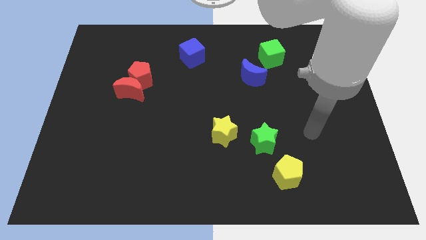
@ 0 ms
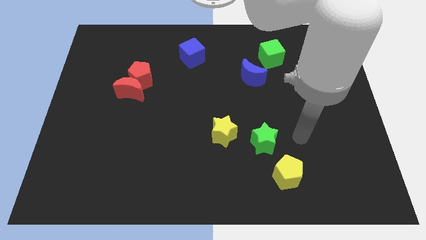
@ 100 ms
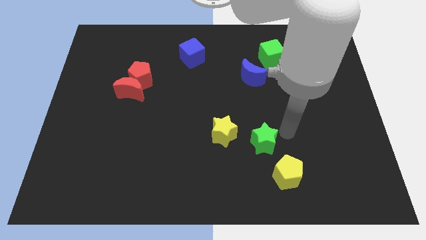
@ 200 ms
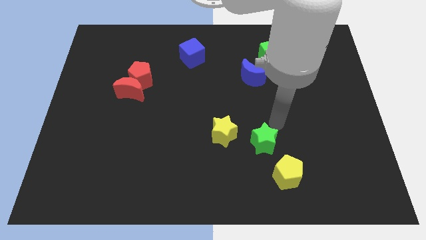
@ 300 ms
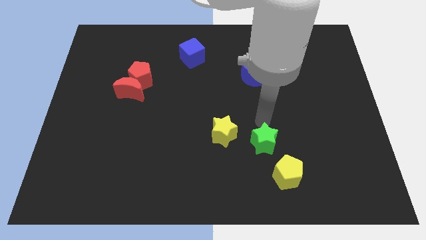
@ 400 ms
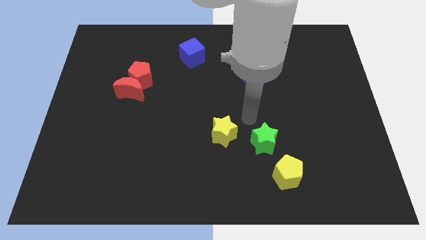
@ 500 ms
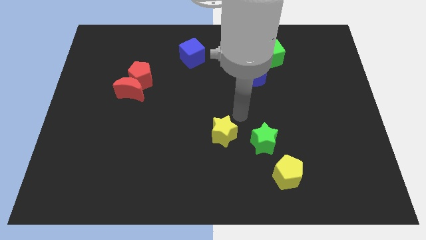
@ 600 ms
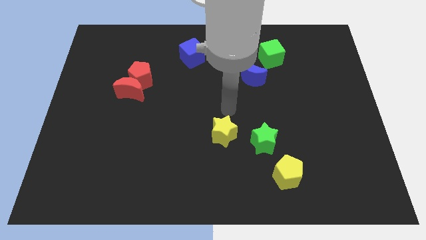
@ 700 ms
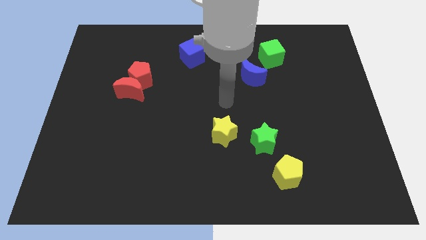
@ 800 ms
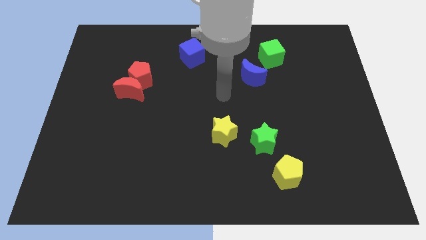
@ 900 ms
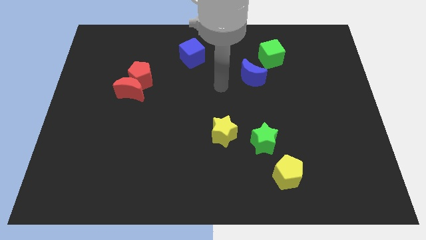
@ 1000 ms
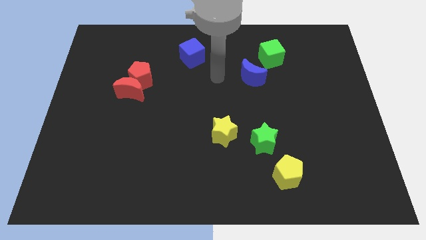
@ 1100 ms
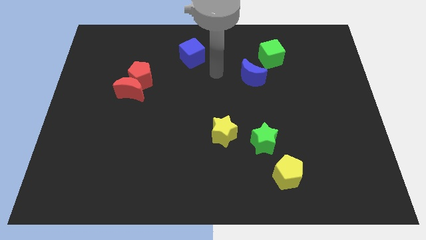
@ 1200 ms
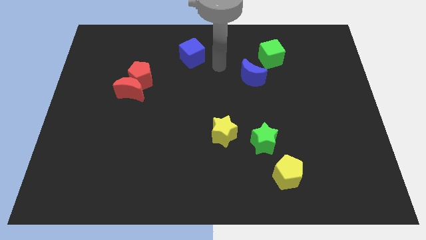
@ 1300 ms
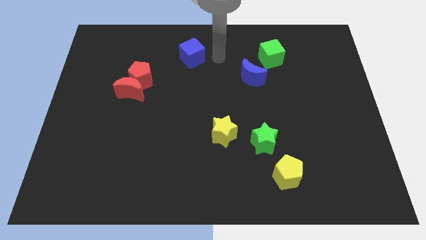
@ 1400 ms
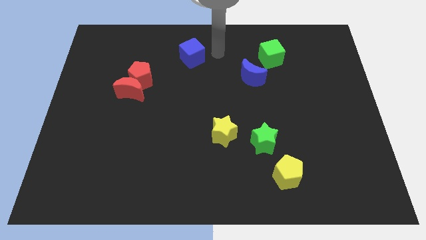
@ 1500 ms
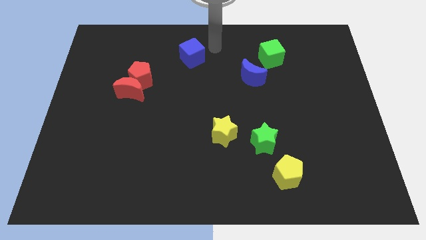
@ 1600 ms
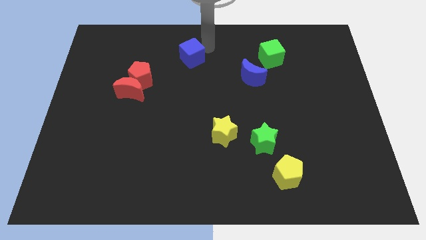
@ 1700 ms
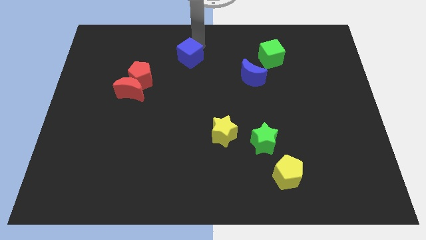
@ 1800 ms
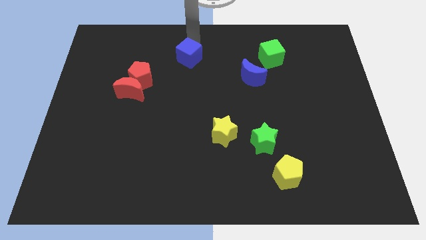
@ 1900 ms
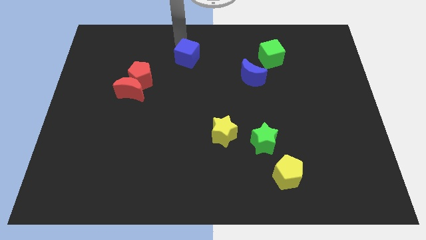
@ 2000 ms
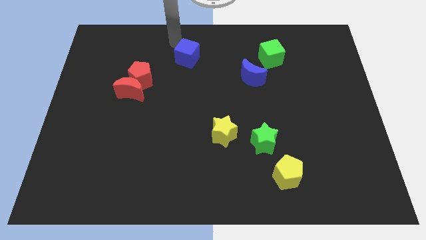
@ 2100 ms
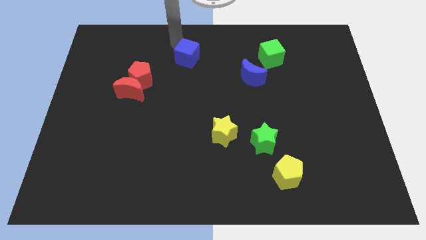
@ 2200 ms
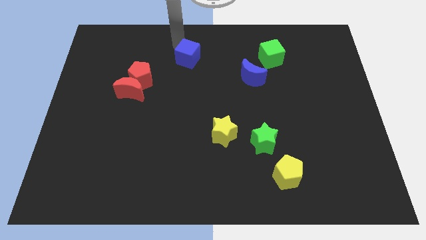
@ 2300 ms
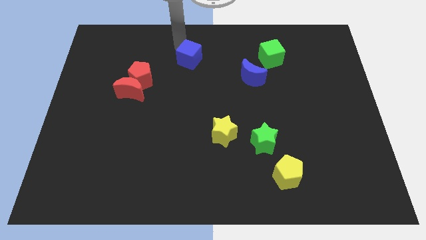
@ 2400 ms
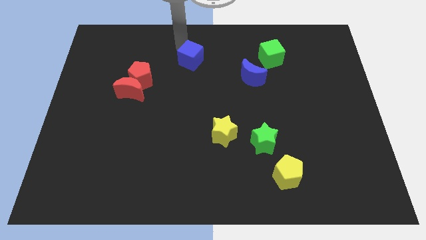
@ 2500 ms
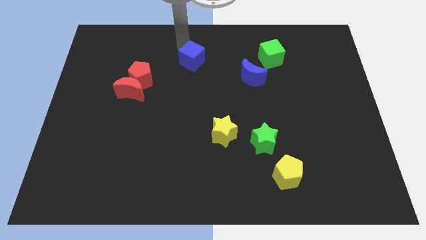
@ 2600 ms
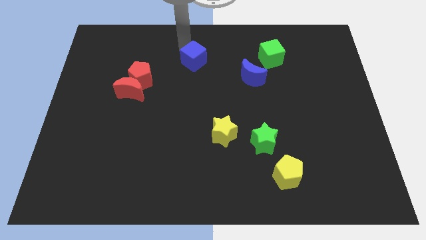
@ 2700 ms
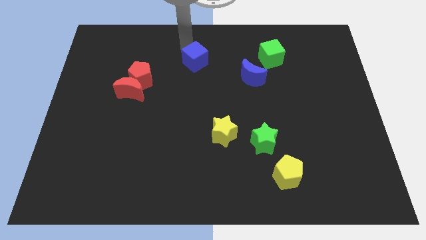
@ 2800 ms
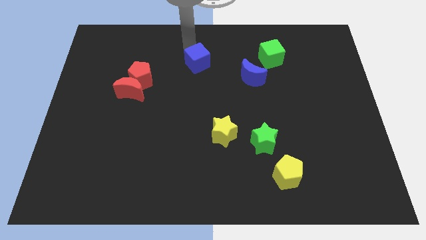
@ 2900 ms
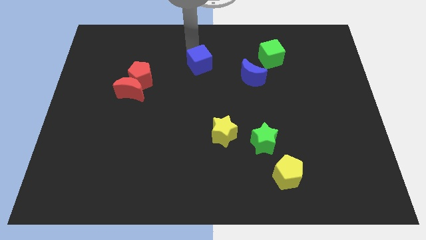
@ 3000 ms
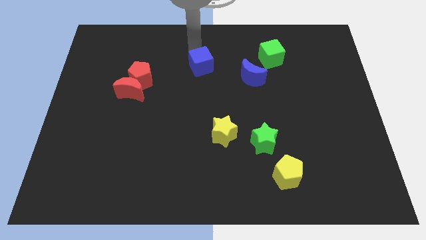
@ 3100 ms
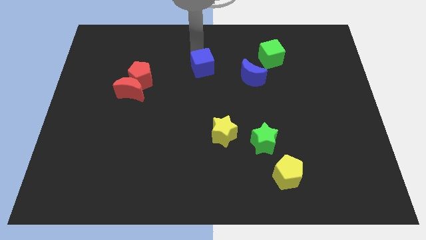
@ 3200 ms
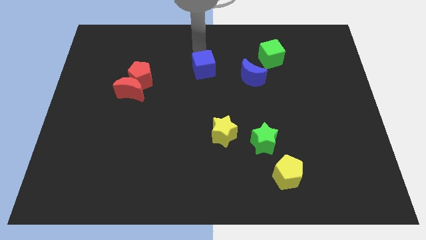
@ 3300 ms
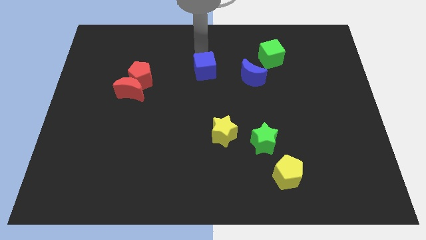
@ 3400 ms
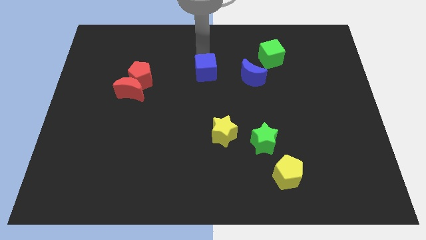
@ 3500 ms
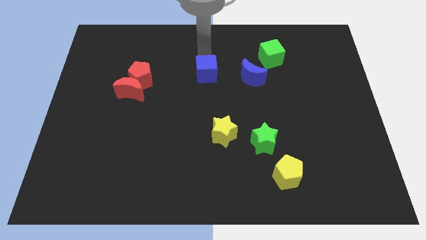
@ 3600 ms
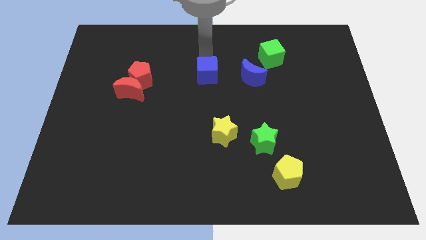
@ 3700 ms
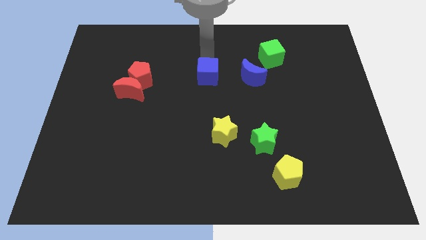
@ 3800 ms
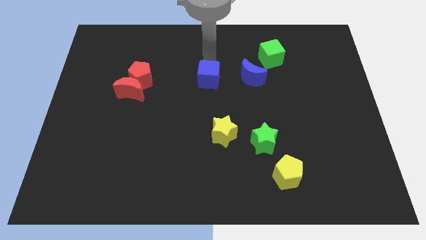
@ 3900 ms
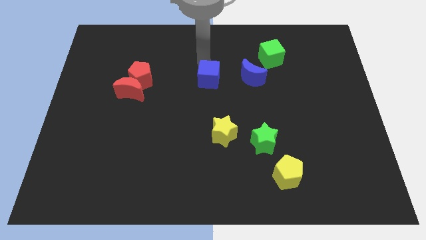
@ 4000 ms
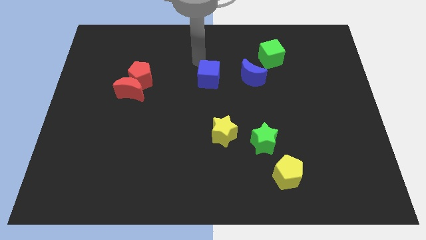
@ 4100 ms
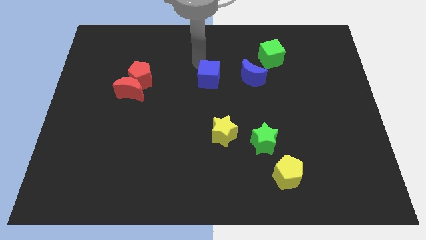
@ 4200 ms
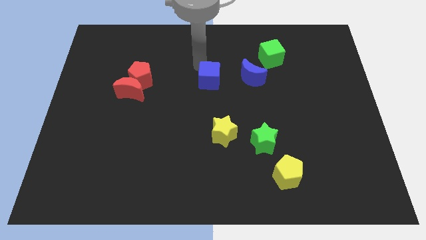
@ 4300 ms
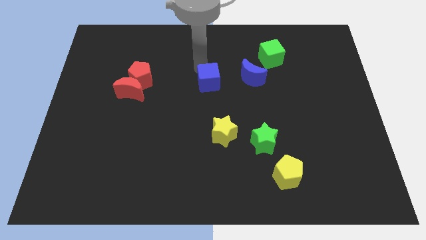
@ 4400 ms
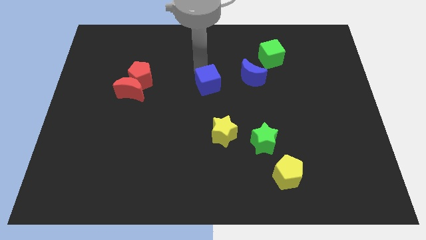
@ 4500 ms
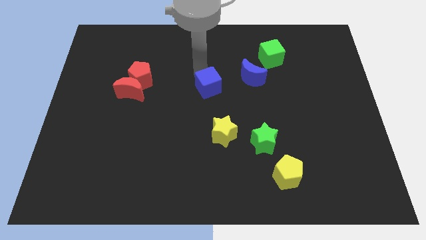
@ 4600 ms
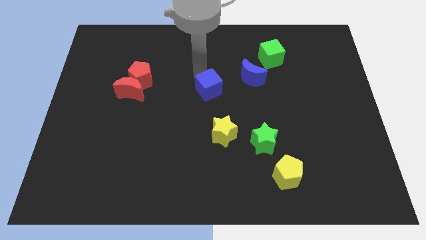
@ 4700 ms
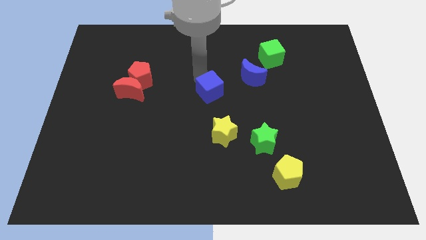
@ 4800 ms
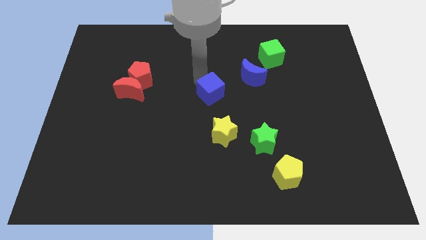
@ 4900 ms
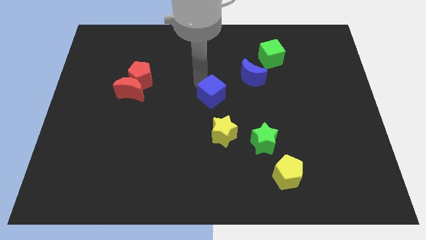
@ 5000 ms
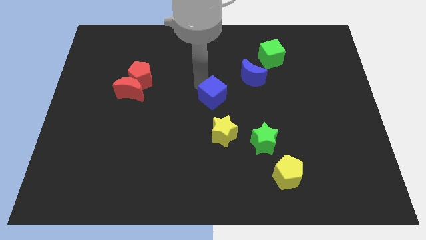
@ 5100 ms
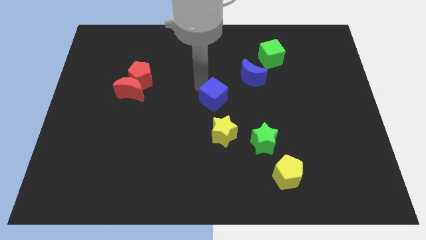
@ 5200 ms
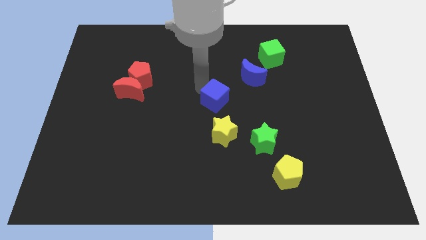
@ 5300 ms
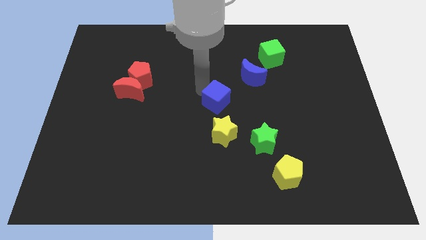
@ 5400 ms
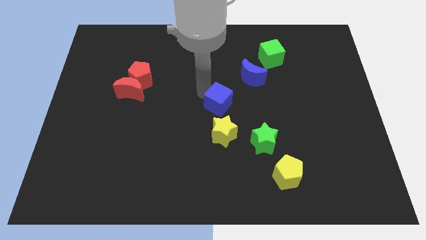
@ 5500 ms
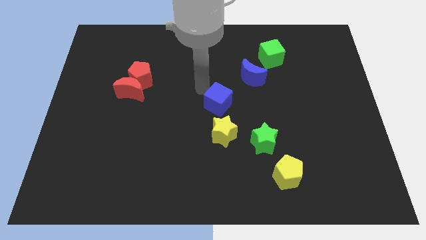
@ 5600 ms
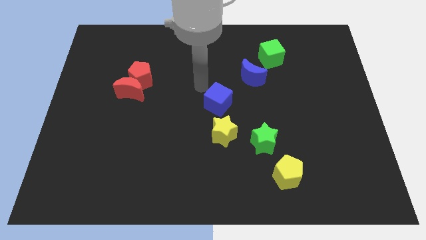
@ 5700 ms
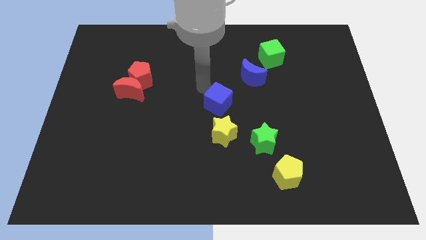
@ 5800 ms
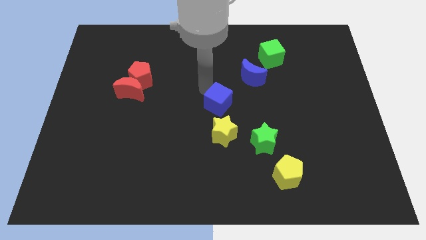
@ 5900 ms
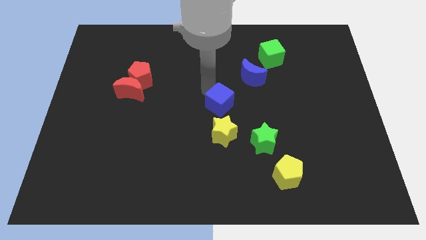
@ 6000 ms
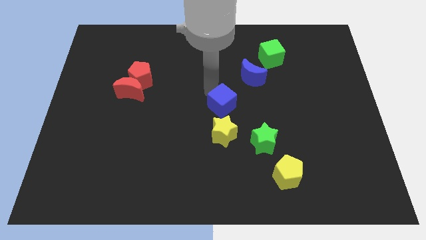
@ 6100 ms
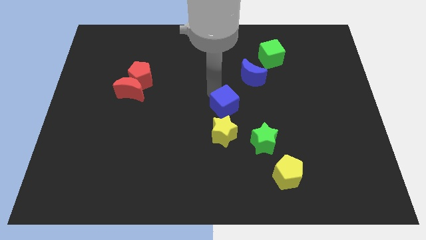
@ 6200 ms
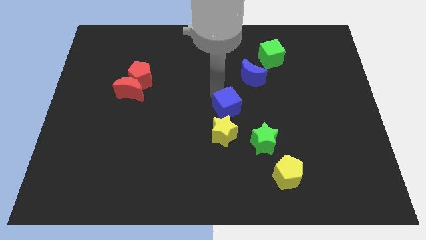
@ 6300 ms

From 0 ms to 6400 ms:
slide the blue cube to the top left side of the green star
